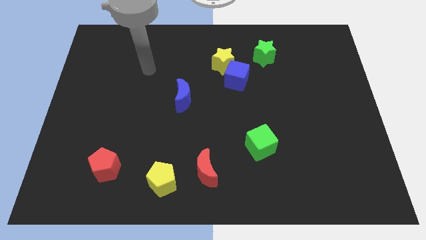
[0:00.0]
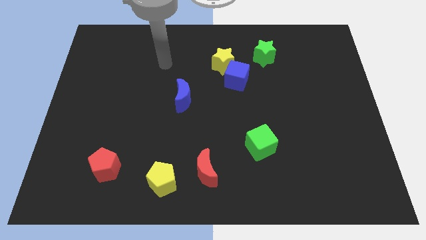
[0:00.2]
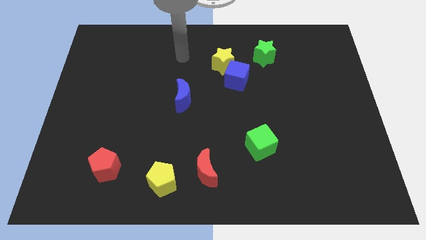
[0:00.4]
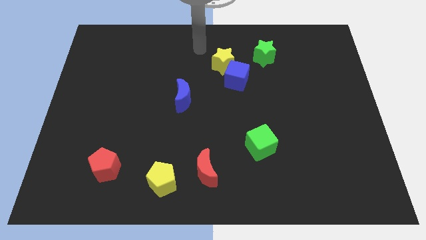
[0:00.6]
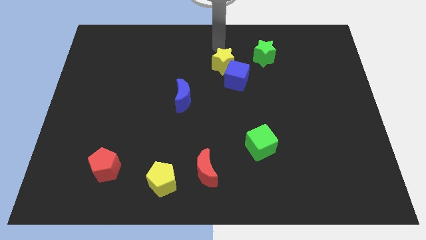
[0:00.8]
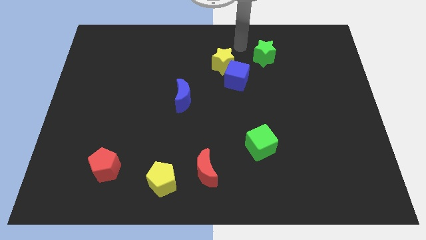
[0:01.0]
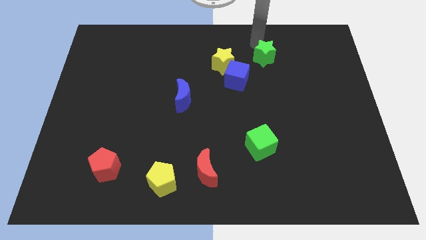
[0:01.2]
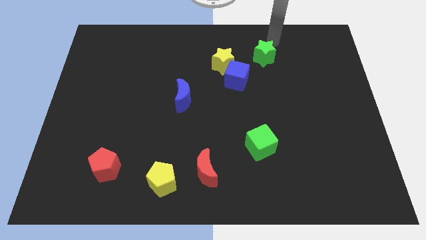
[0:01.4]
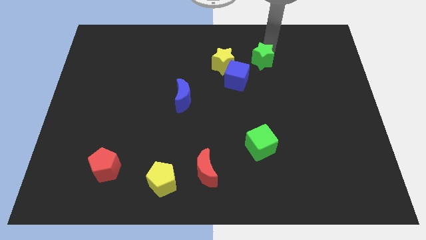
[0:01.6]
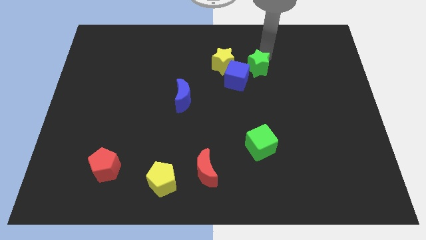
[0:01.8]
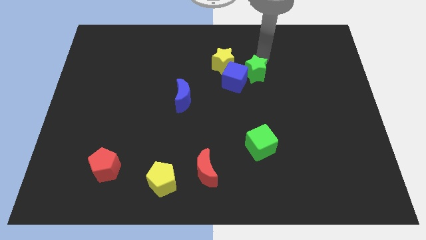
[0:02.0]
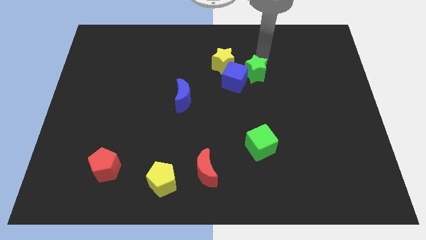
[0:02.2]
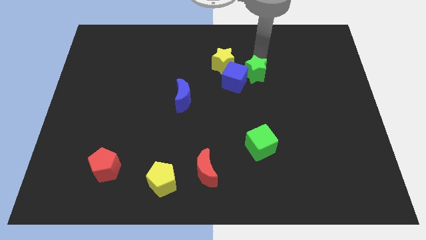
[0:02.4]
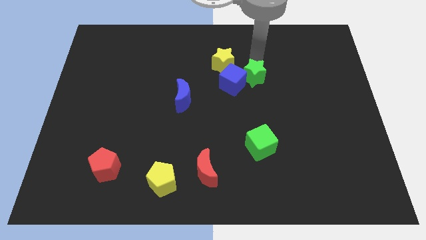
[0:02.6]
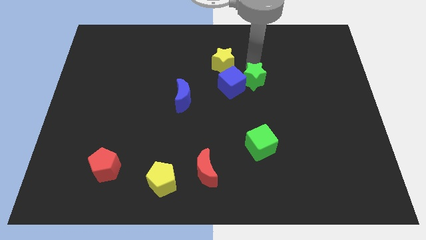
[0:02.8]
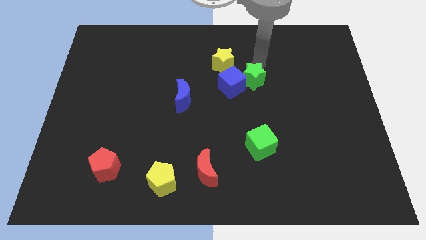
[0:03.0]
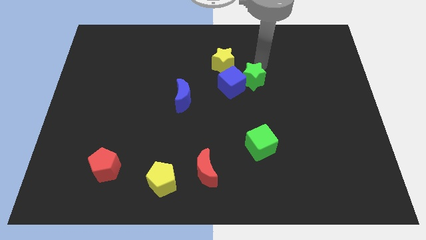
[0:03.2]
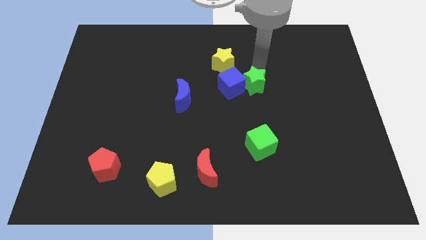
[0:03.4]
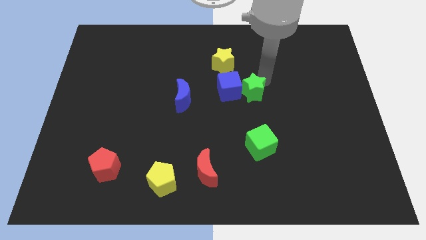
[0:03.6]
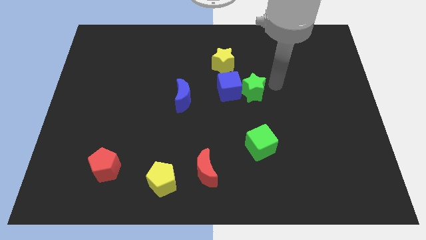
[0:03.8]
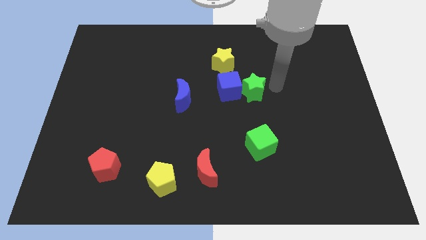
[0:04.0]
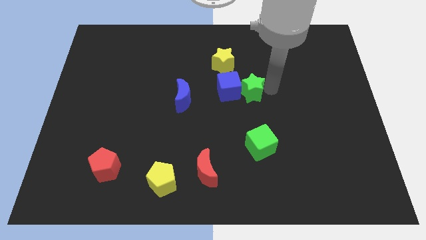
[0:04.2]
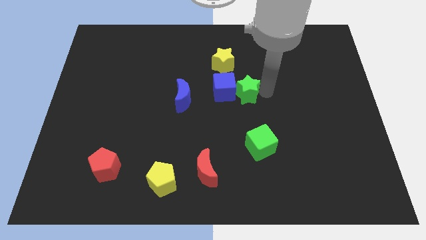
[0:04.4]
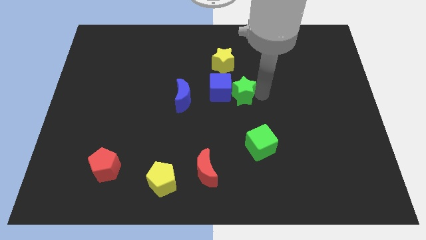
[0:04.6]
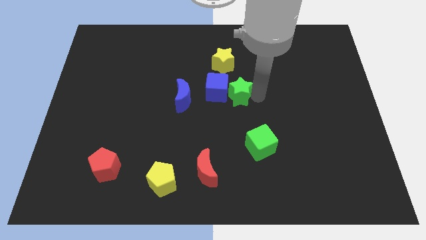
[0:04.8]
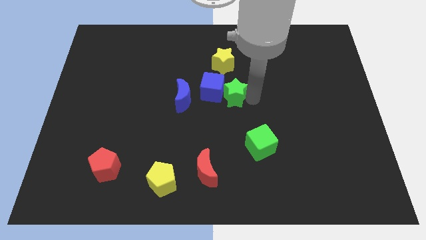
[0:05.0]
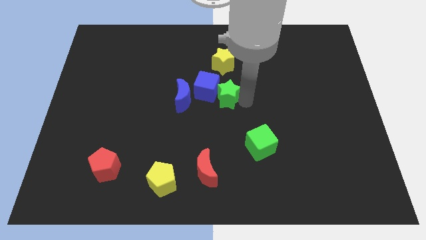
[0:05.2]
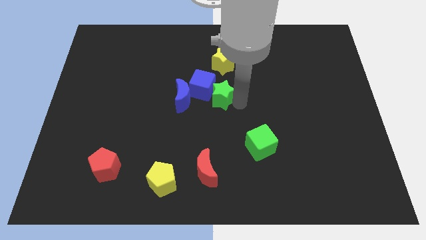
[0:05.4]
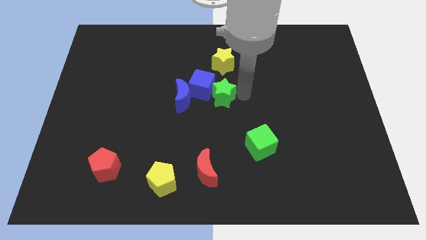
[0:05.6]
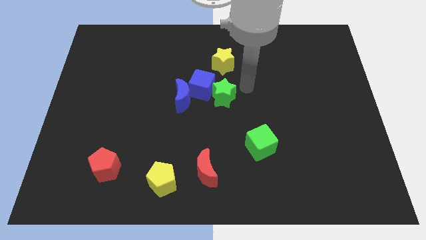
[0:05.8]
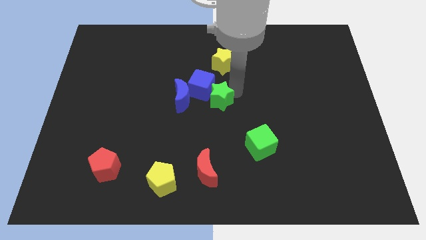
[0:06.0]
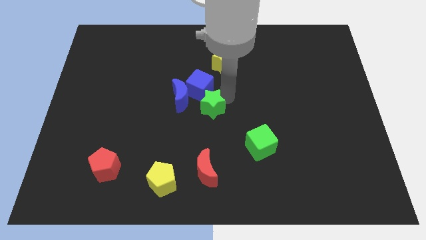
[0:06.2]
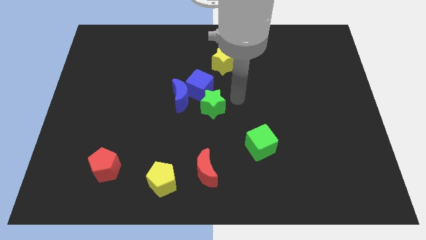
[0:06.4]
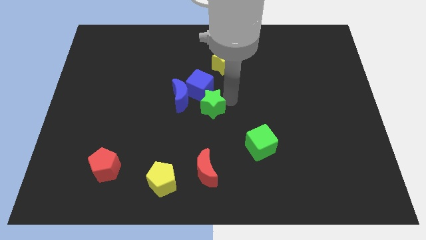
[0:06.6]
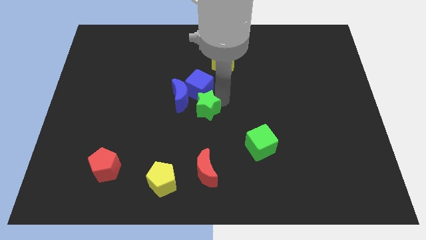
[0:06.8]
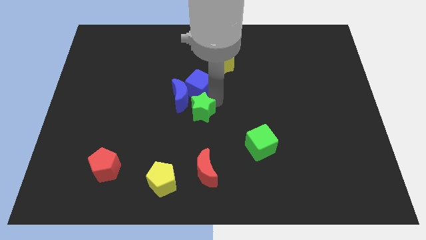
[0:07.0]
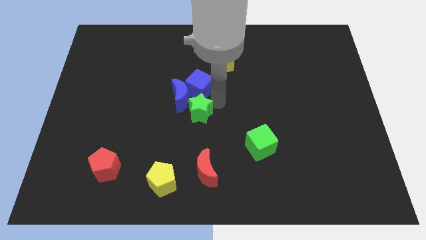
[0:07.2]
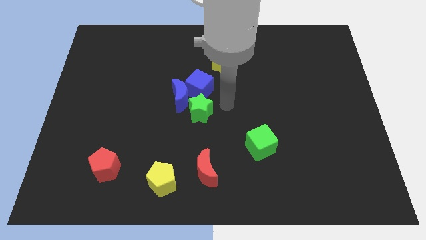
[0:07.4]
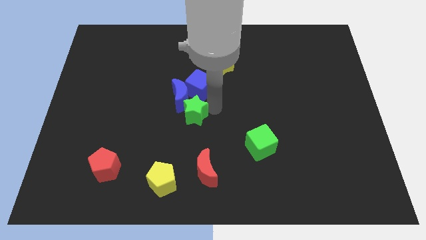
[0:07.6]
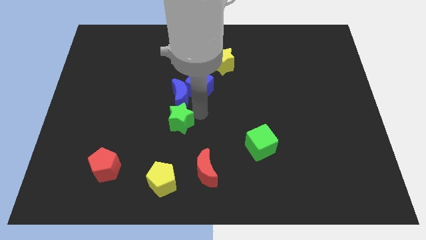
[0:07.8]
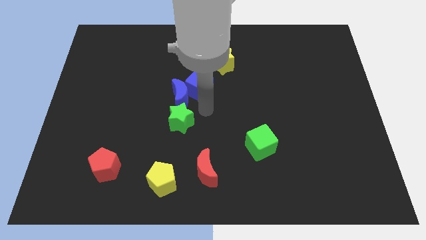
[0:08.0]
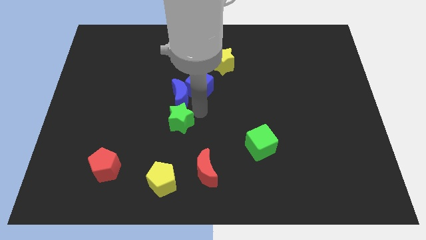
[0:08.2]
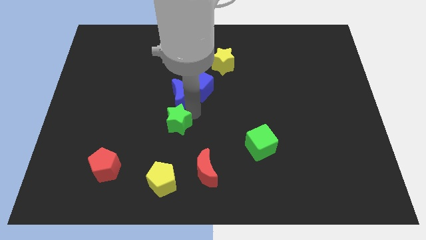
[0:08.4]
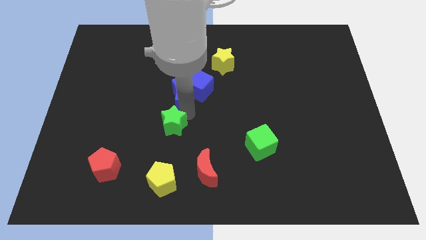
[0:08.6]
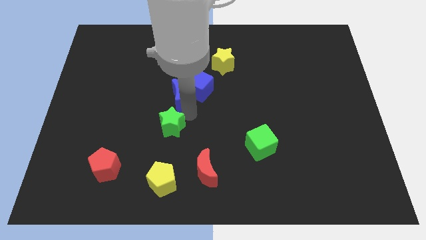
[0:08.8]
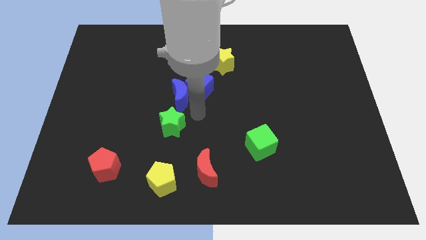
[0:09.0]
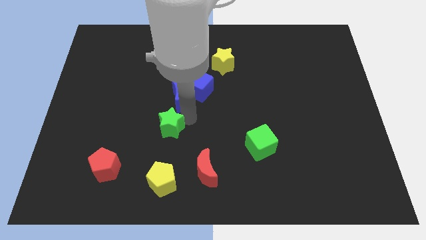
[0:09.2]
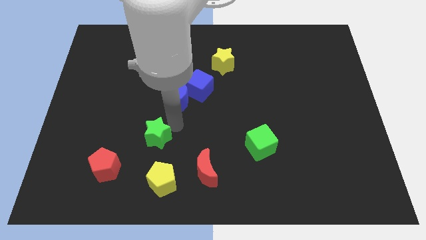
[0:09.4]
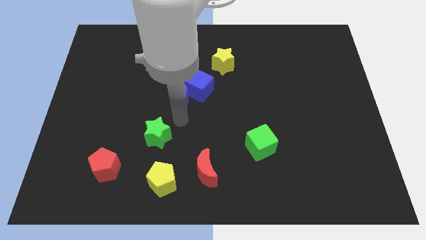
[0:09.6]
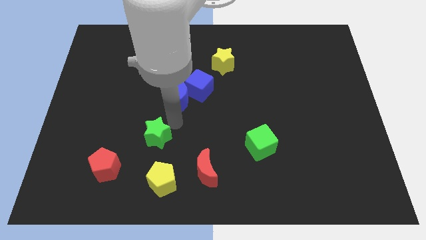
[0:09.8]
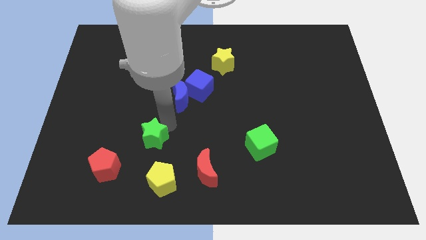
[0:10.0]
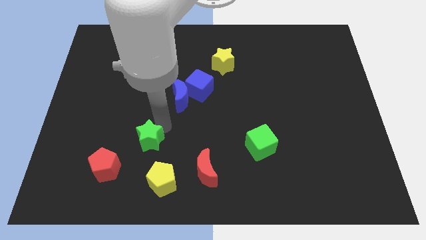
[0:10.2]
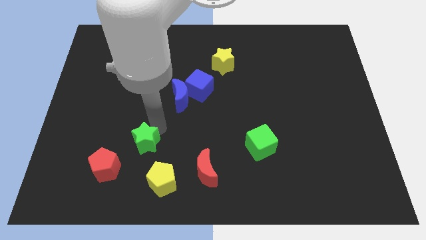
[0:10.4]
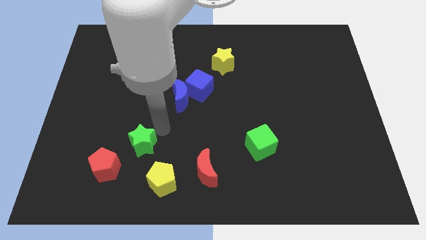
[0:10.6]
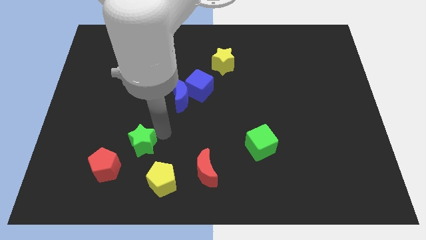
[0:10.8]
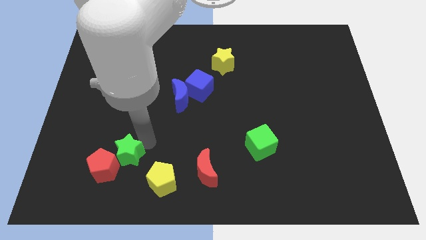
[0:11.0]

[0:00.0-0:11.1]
move the green star to the red pentagon

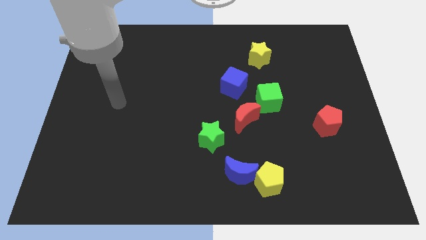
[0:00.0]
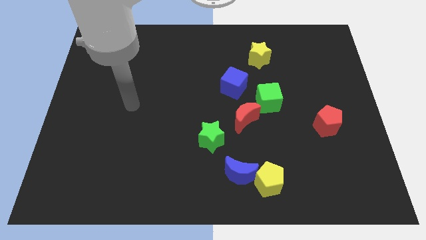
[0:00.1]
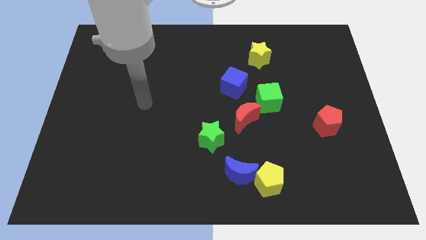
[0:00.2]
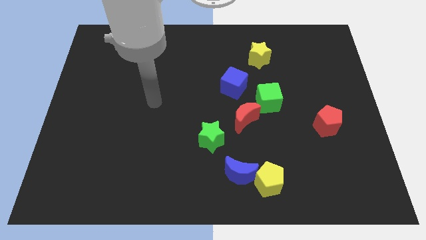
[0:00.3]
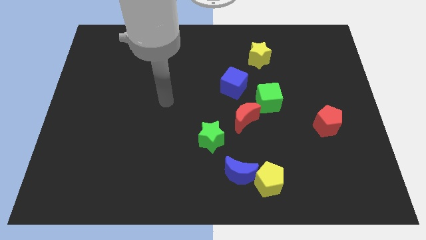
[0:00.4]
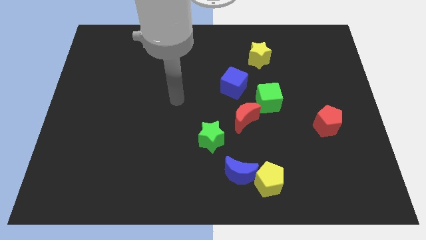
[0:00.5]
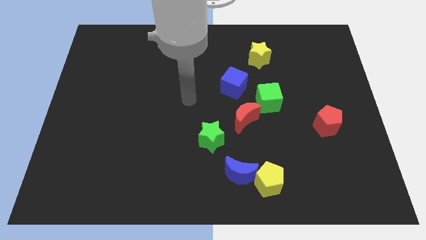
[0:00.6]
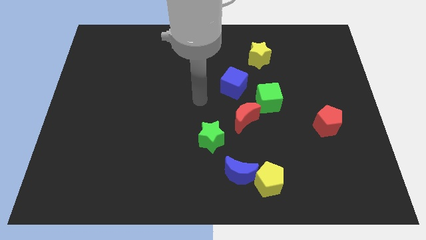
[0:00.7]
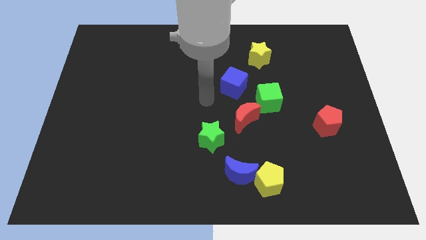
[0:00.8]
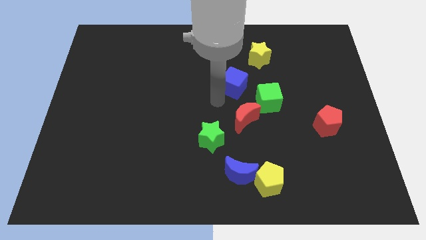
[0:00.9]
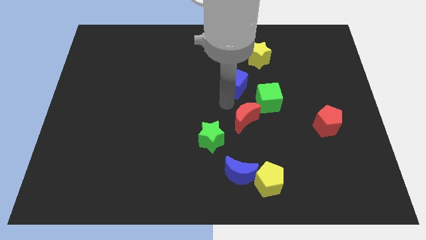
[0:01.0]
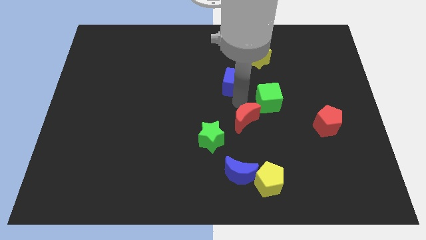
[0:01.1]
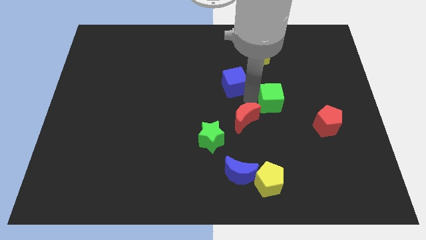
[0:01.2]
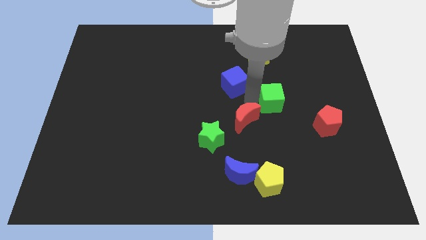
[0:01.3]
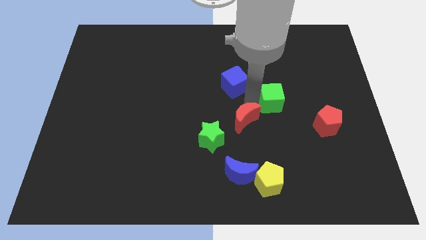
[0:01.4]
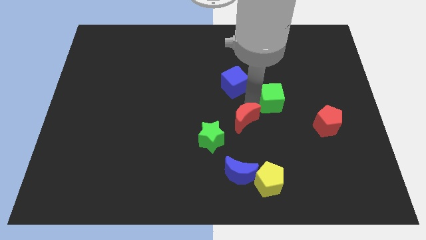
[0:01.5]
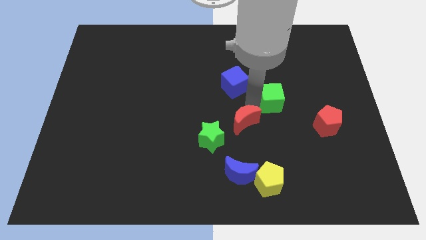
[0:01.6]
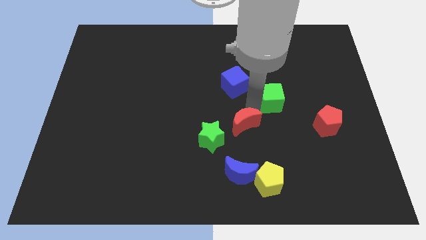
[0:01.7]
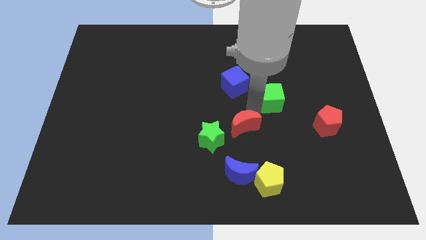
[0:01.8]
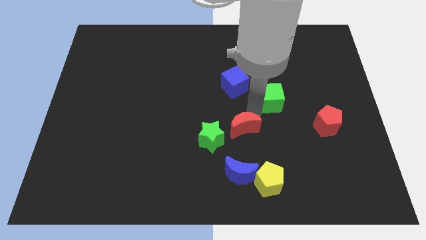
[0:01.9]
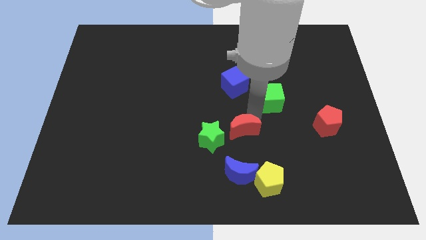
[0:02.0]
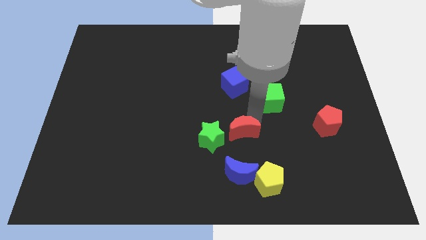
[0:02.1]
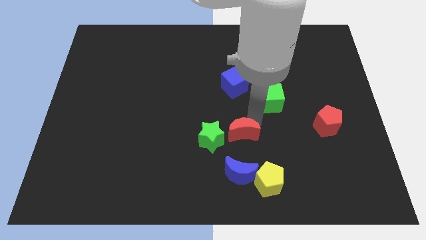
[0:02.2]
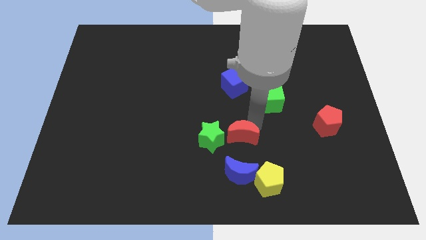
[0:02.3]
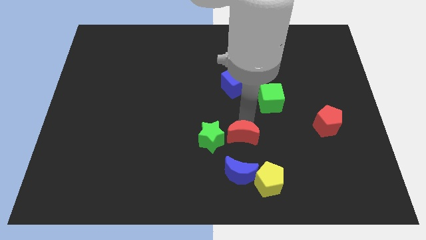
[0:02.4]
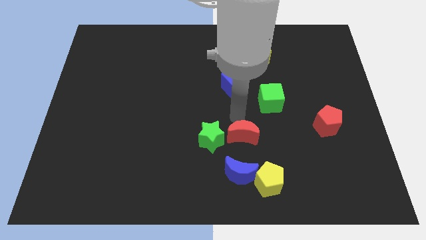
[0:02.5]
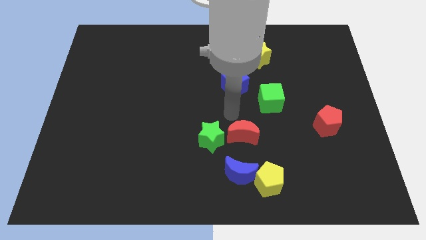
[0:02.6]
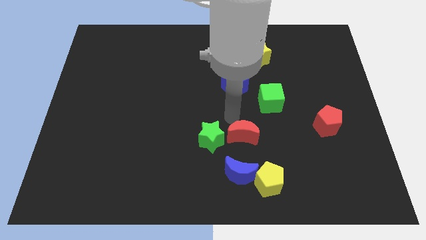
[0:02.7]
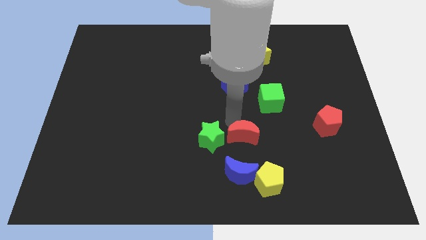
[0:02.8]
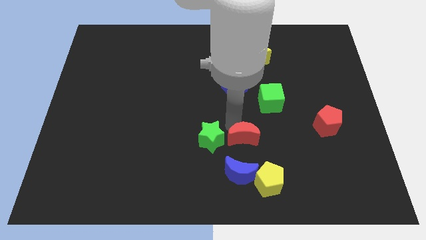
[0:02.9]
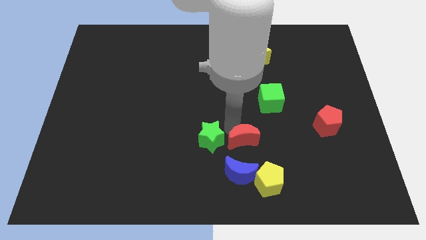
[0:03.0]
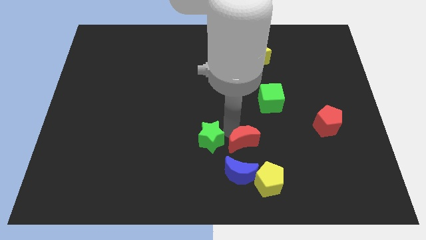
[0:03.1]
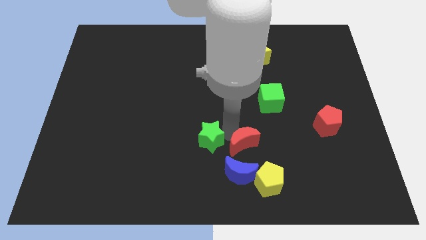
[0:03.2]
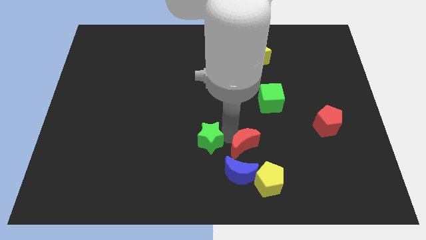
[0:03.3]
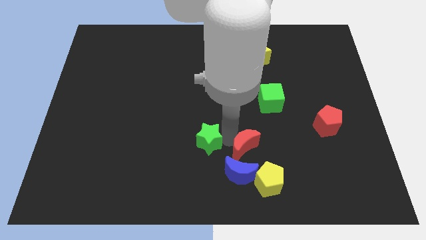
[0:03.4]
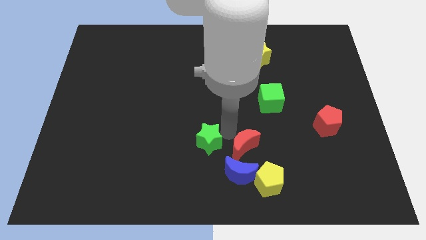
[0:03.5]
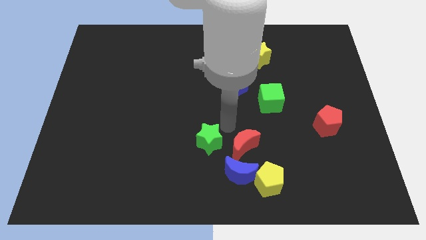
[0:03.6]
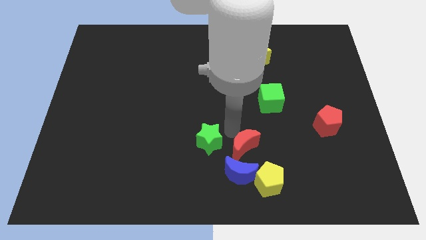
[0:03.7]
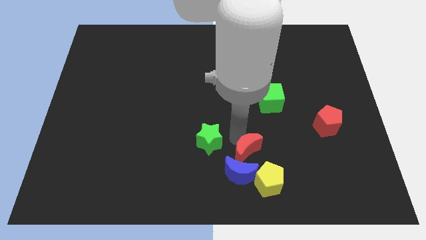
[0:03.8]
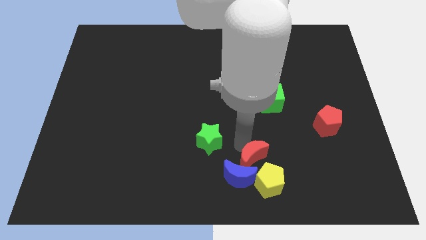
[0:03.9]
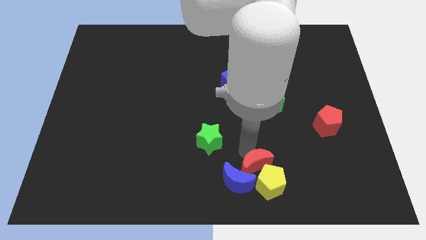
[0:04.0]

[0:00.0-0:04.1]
put the red moon towards the yellow pentagon
